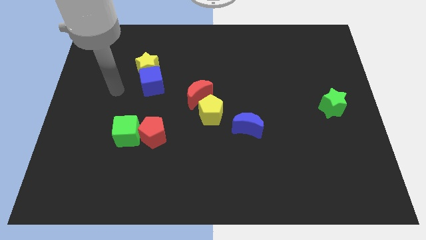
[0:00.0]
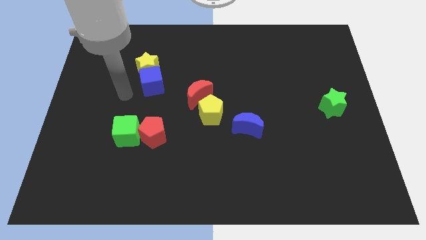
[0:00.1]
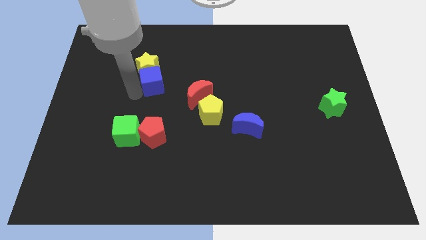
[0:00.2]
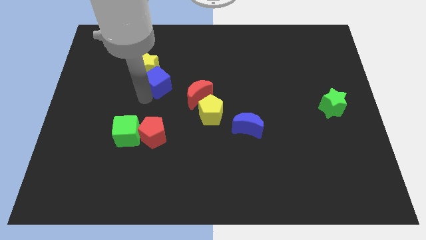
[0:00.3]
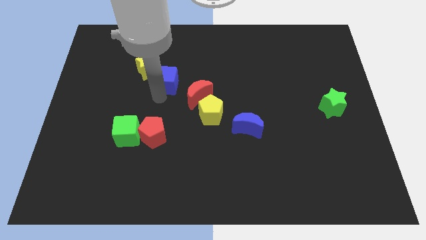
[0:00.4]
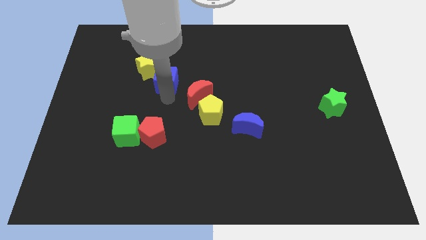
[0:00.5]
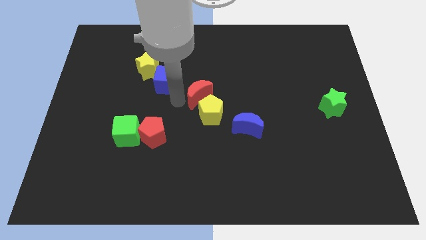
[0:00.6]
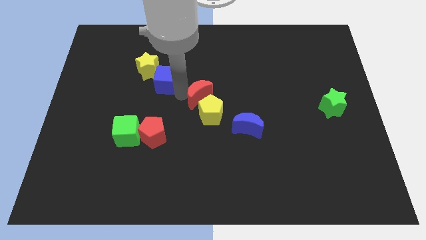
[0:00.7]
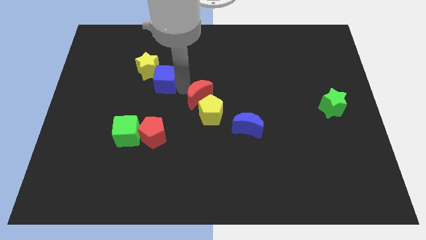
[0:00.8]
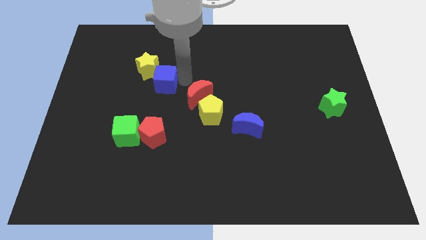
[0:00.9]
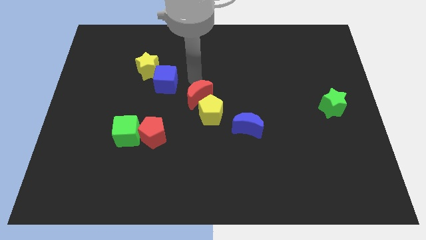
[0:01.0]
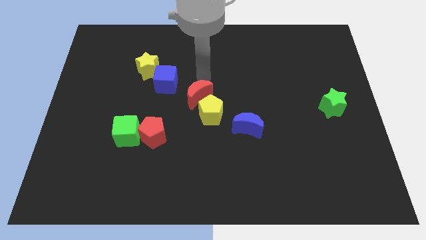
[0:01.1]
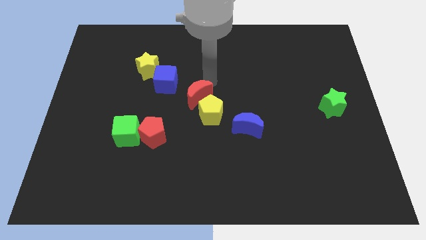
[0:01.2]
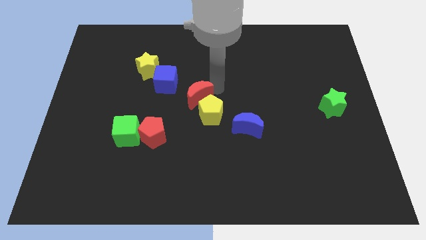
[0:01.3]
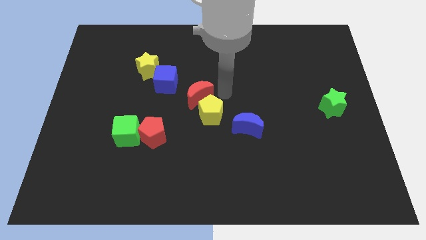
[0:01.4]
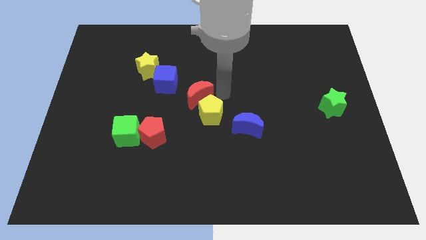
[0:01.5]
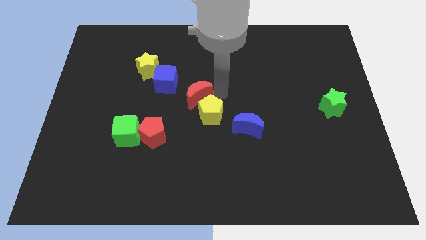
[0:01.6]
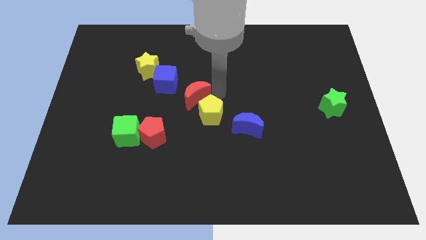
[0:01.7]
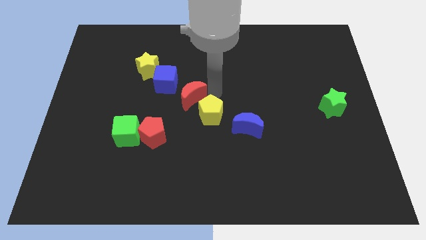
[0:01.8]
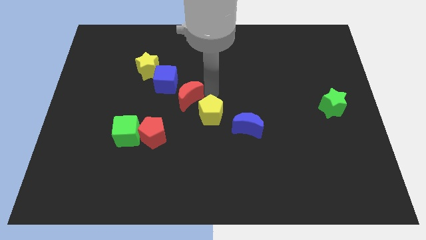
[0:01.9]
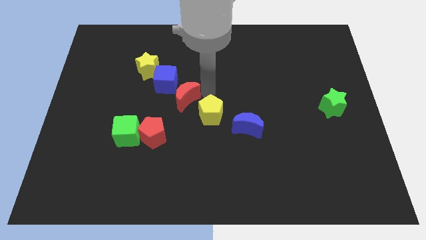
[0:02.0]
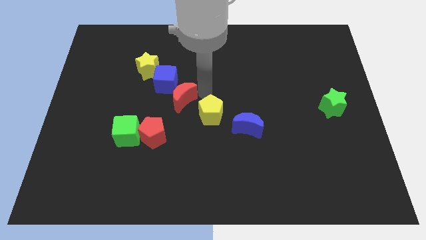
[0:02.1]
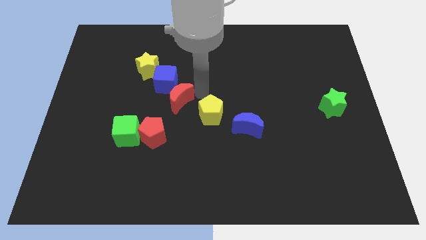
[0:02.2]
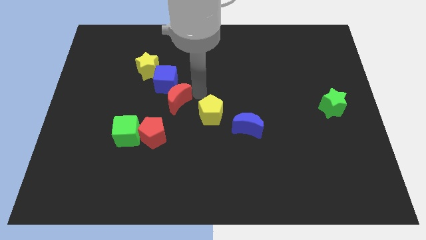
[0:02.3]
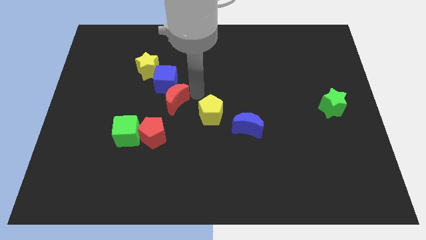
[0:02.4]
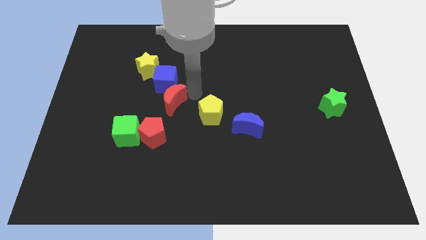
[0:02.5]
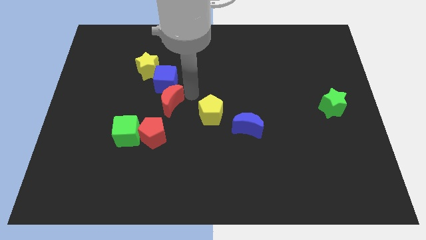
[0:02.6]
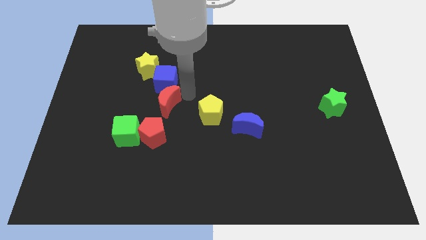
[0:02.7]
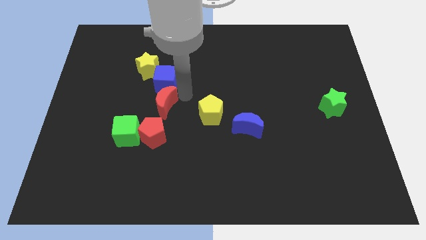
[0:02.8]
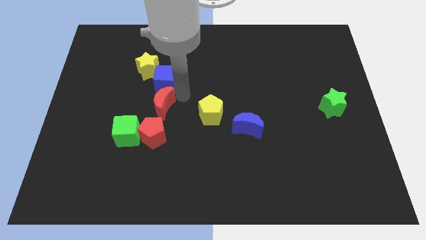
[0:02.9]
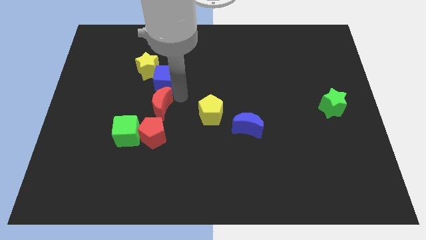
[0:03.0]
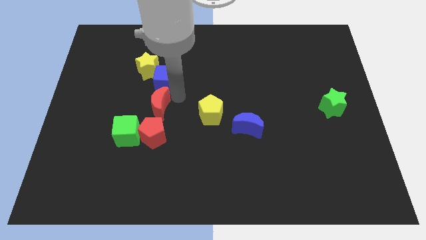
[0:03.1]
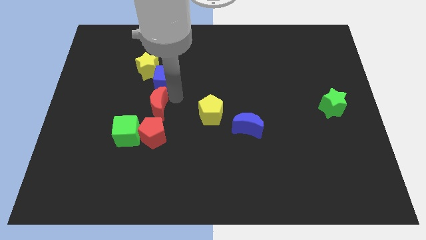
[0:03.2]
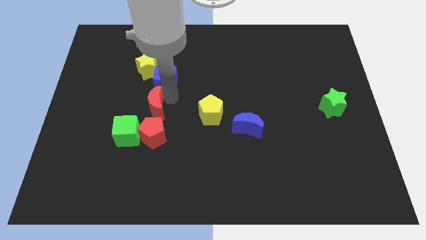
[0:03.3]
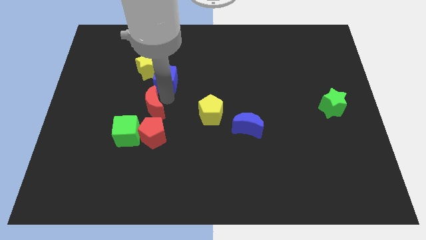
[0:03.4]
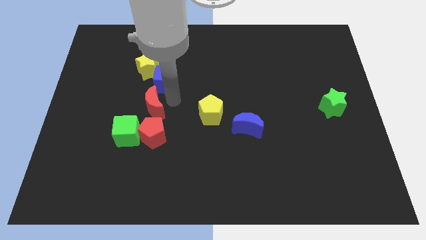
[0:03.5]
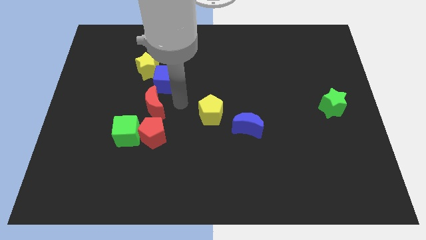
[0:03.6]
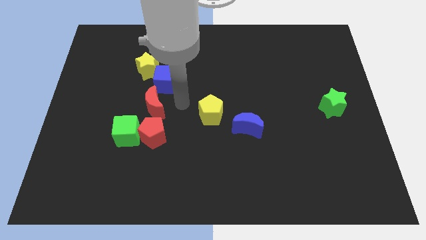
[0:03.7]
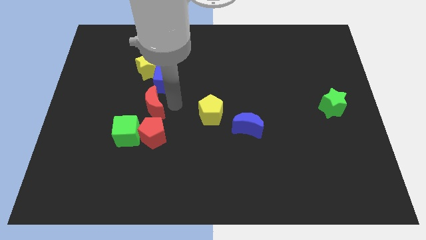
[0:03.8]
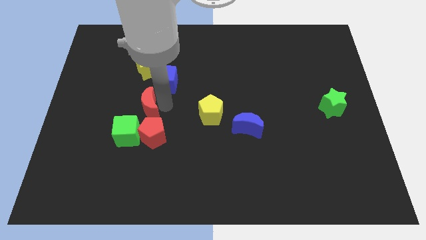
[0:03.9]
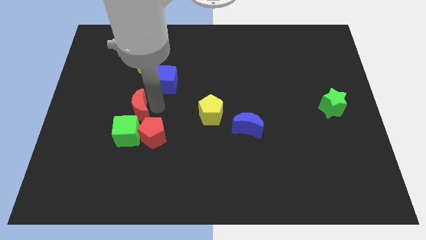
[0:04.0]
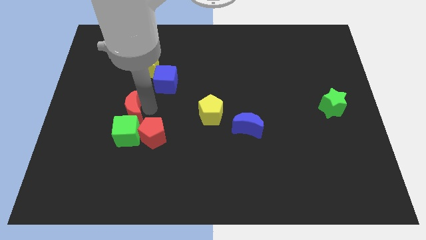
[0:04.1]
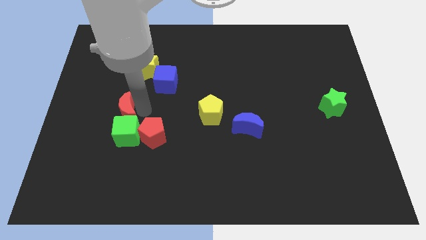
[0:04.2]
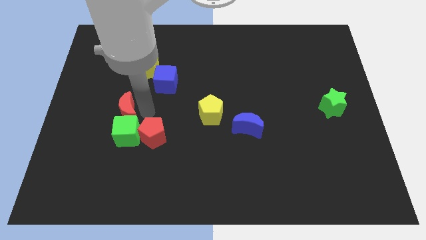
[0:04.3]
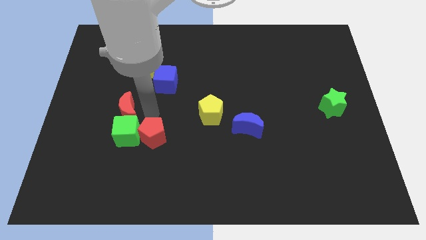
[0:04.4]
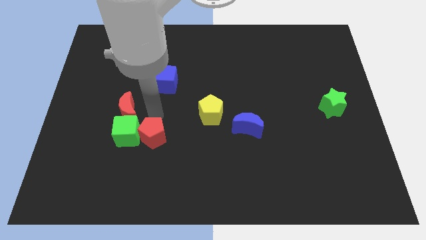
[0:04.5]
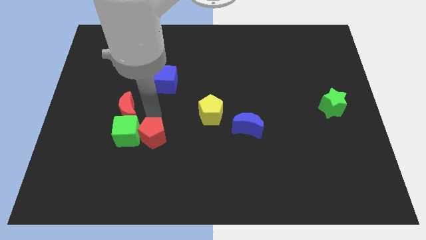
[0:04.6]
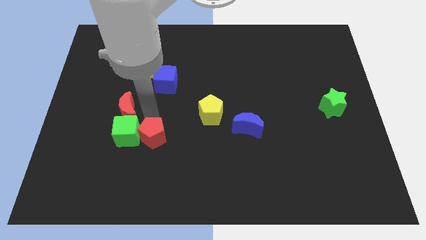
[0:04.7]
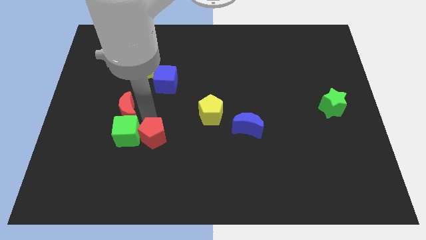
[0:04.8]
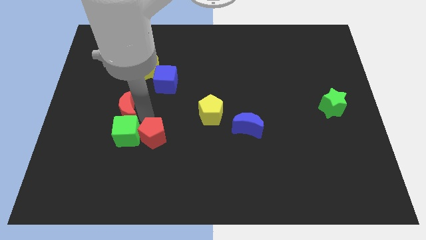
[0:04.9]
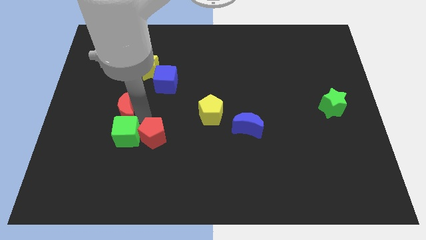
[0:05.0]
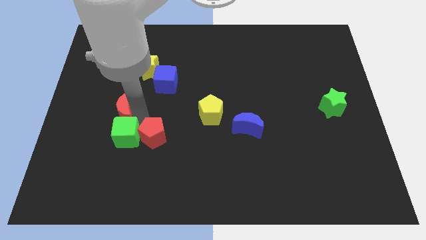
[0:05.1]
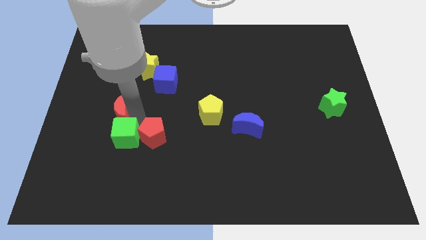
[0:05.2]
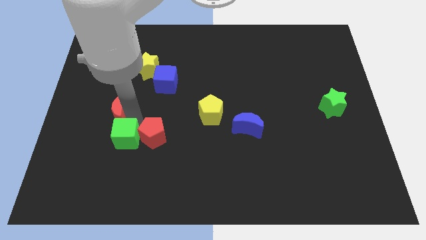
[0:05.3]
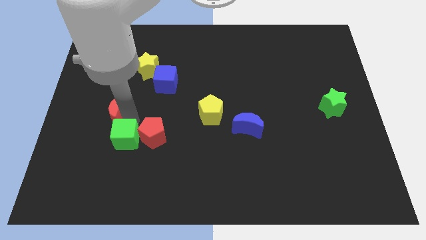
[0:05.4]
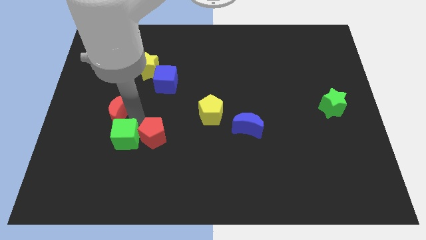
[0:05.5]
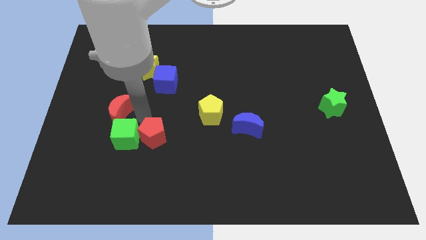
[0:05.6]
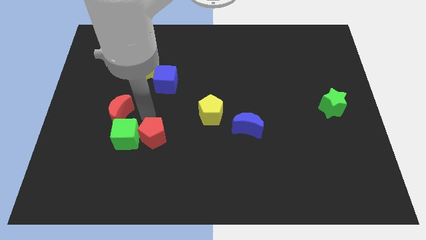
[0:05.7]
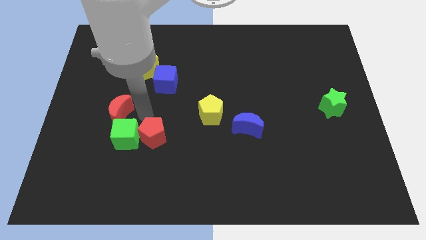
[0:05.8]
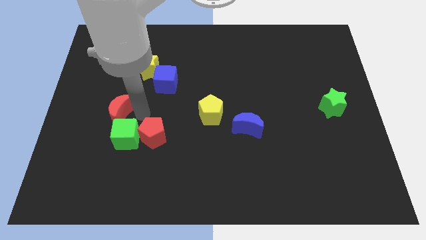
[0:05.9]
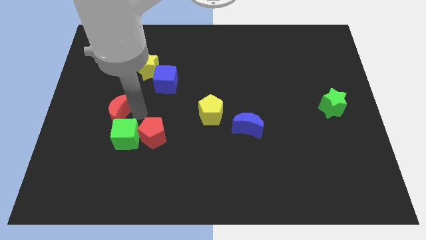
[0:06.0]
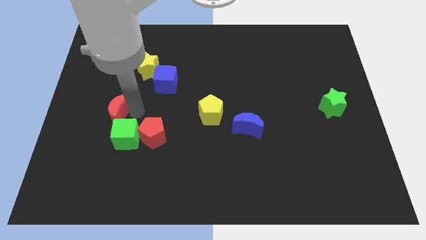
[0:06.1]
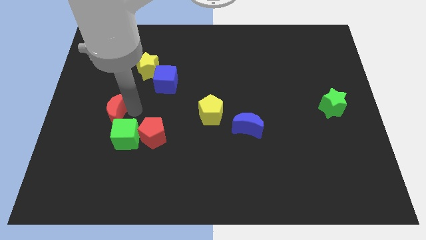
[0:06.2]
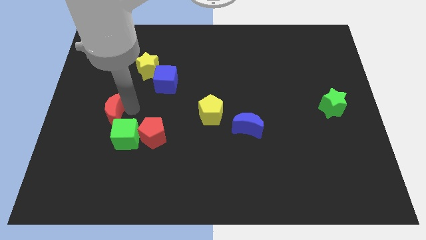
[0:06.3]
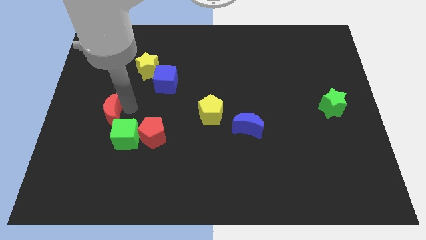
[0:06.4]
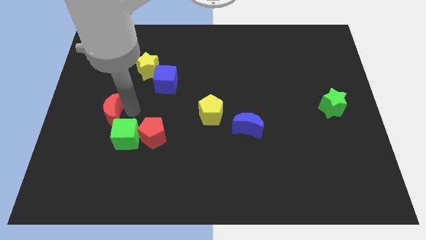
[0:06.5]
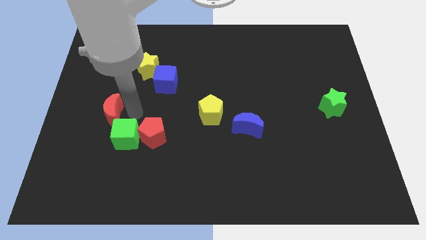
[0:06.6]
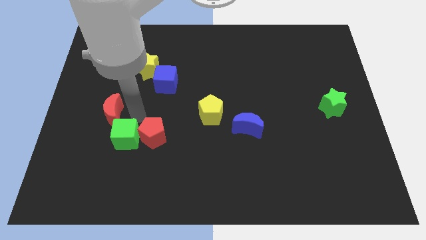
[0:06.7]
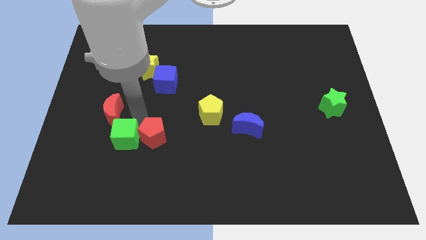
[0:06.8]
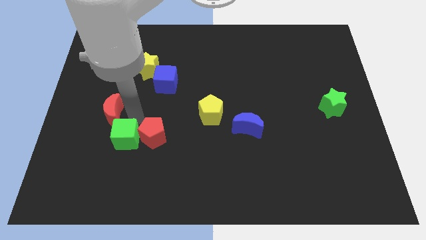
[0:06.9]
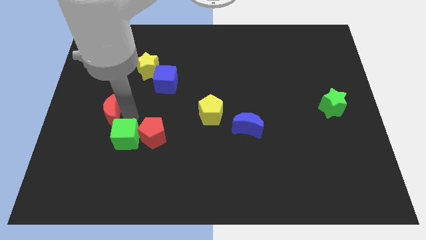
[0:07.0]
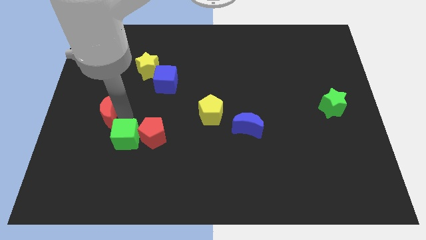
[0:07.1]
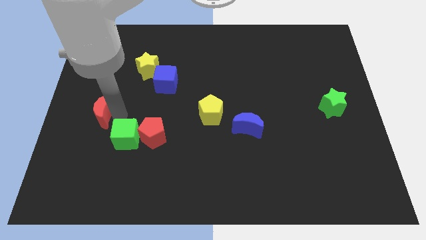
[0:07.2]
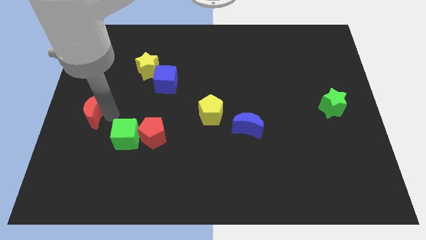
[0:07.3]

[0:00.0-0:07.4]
slide the red moon to the center left
